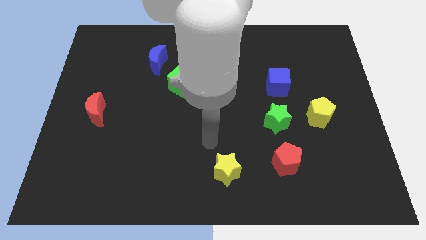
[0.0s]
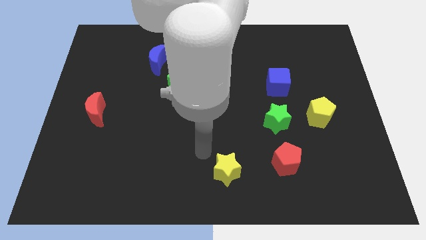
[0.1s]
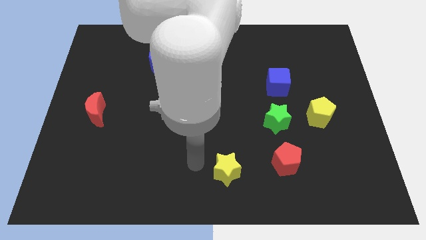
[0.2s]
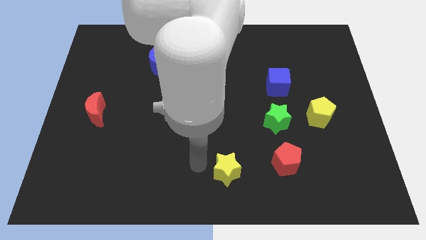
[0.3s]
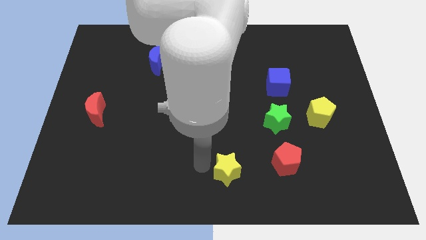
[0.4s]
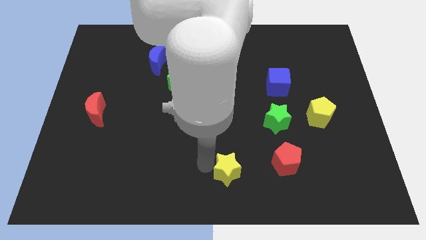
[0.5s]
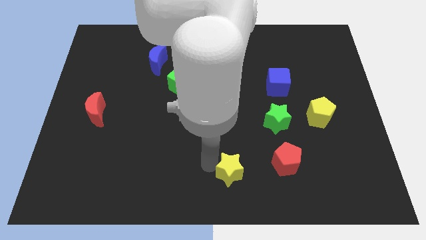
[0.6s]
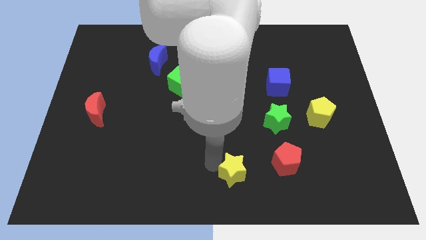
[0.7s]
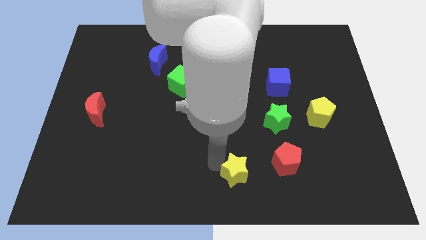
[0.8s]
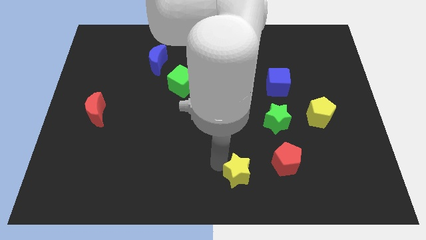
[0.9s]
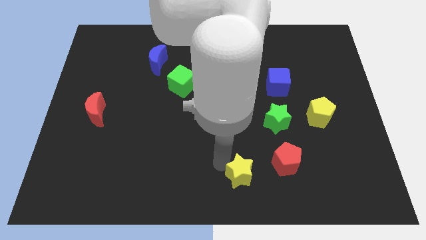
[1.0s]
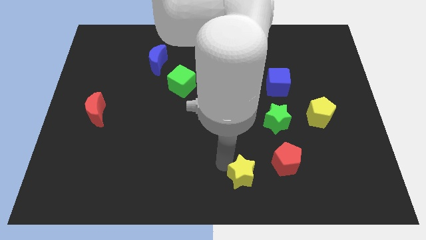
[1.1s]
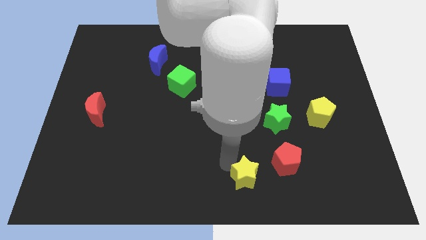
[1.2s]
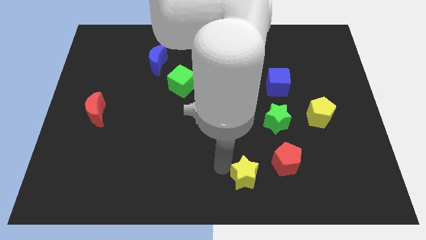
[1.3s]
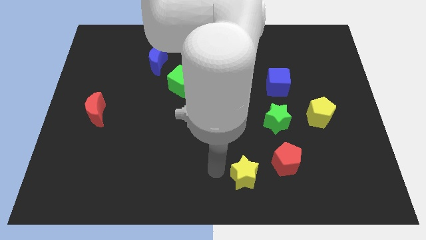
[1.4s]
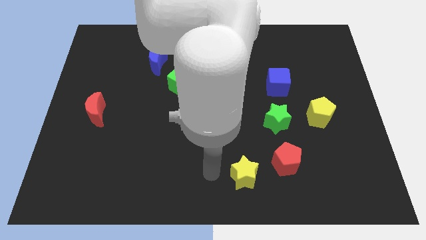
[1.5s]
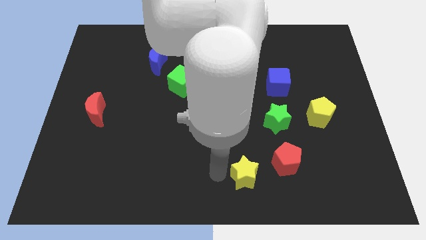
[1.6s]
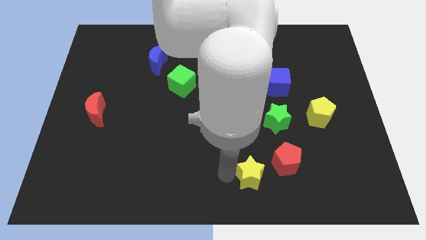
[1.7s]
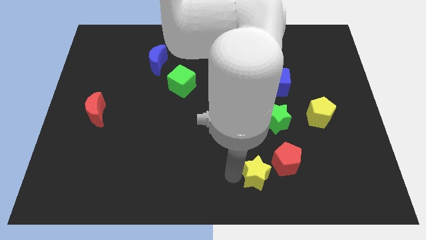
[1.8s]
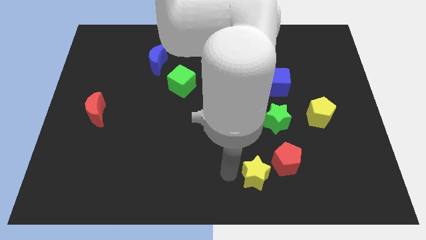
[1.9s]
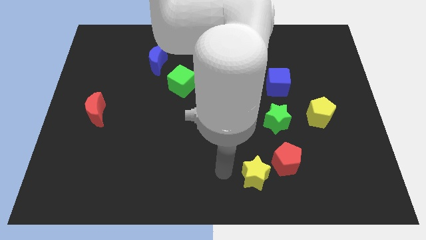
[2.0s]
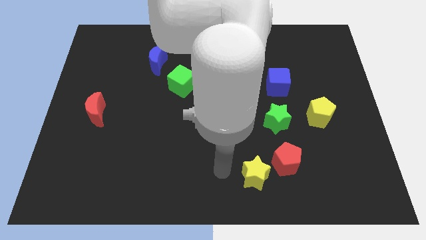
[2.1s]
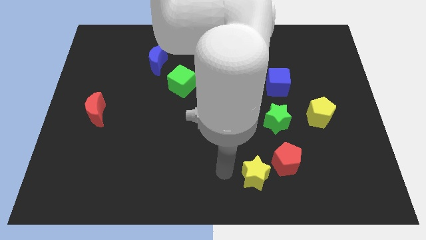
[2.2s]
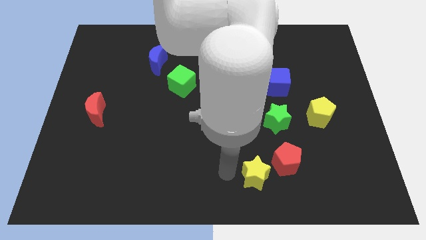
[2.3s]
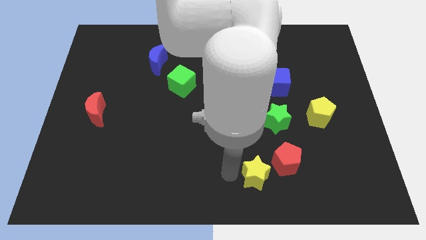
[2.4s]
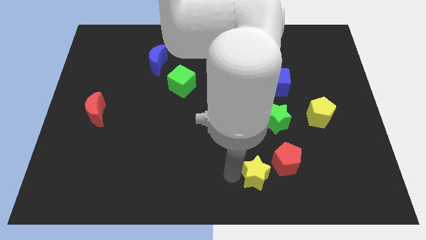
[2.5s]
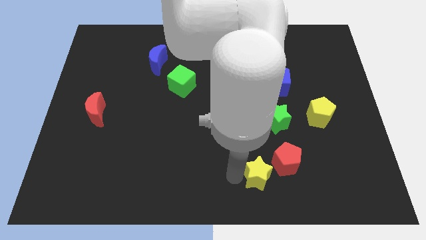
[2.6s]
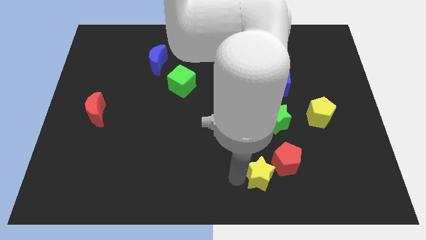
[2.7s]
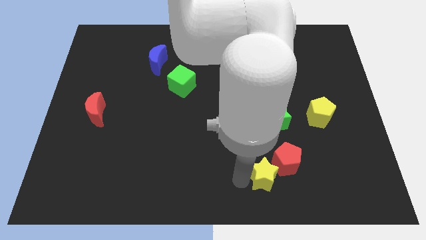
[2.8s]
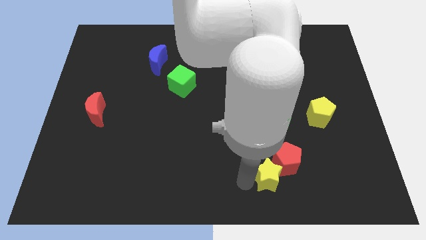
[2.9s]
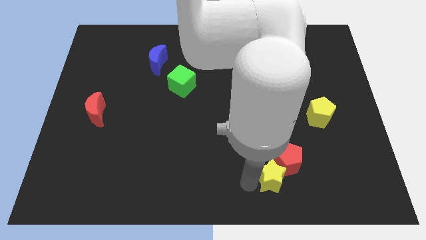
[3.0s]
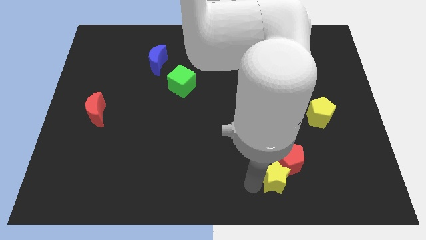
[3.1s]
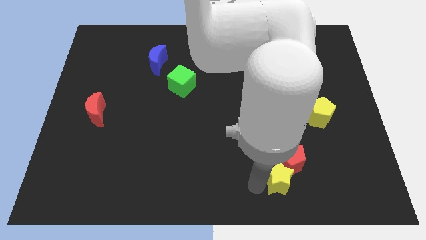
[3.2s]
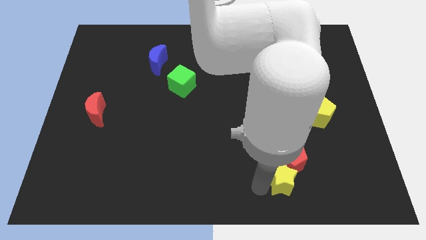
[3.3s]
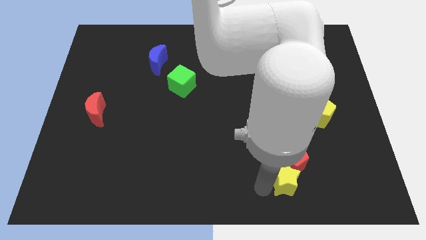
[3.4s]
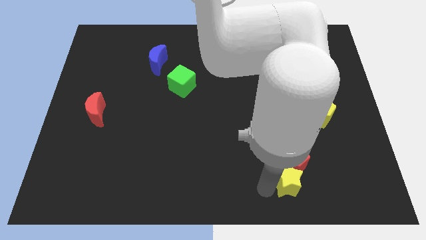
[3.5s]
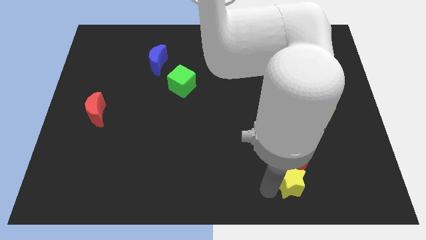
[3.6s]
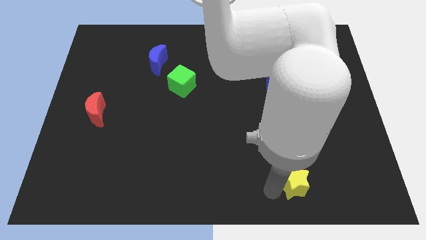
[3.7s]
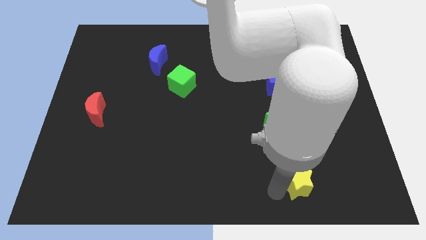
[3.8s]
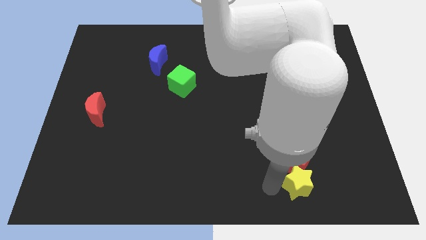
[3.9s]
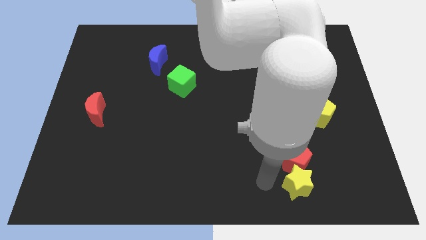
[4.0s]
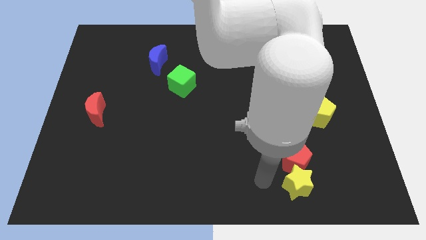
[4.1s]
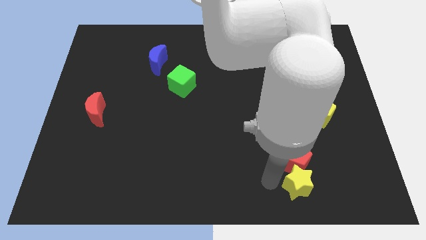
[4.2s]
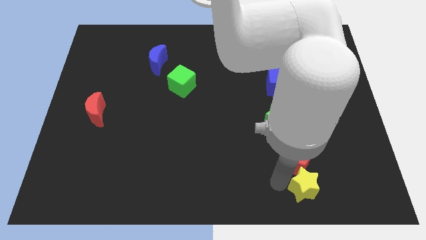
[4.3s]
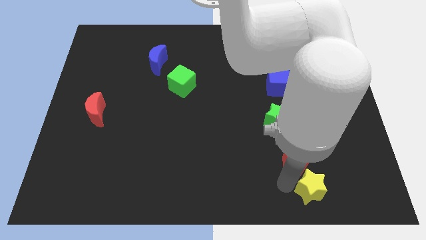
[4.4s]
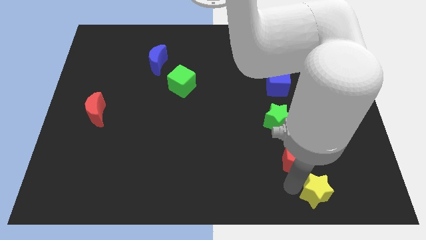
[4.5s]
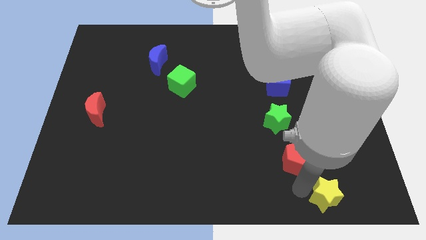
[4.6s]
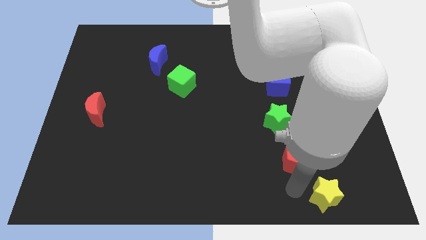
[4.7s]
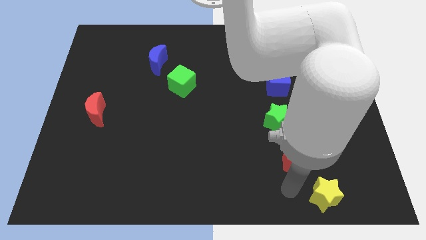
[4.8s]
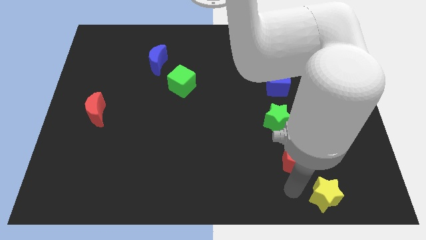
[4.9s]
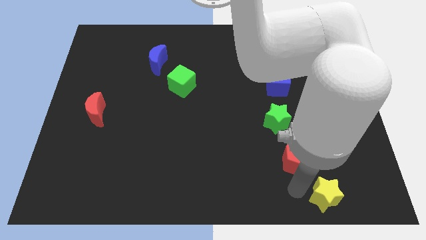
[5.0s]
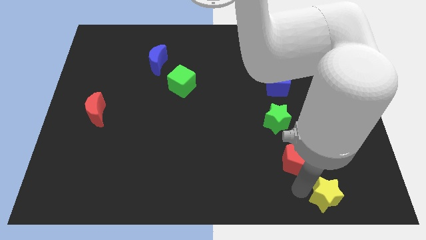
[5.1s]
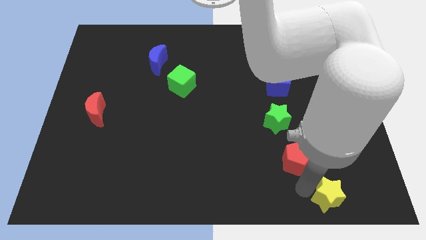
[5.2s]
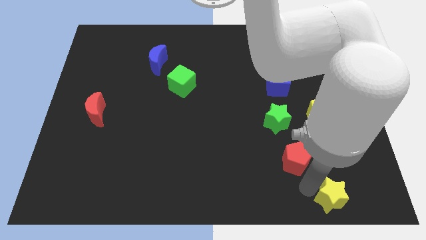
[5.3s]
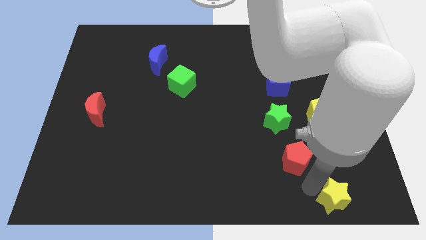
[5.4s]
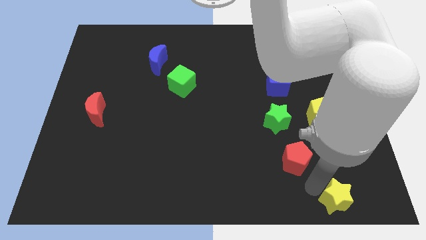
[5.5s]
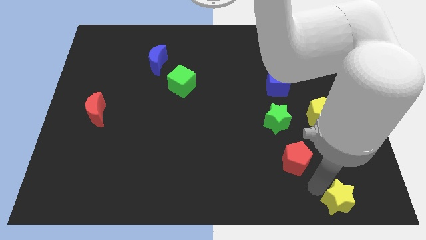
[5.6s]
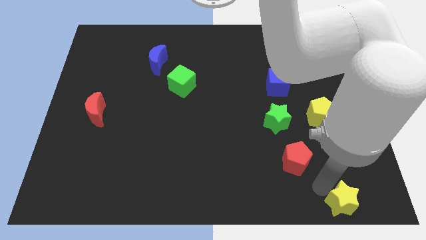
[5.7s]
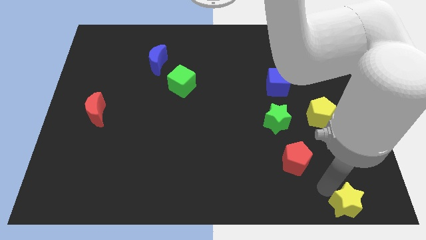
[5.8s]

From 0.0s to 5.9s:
slide the yellow star to the bottom right of the board
